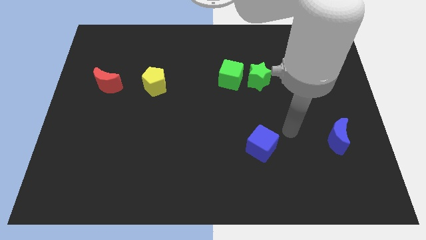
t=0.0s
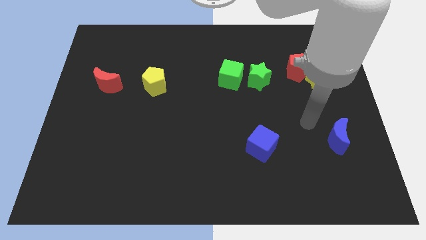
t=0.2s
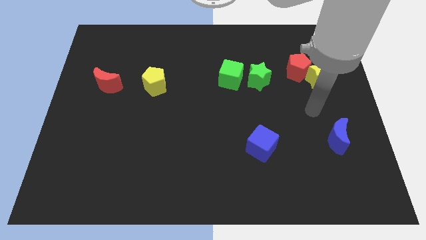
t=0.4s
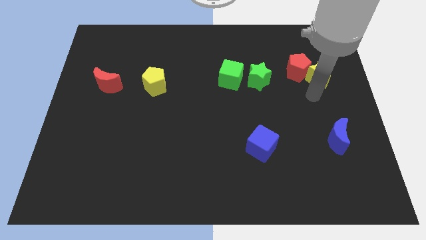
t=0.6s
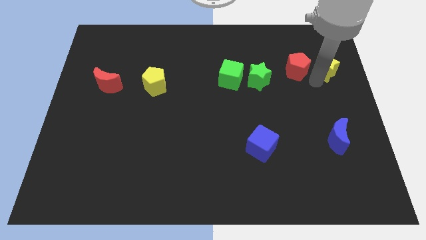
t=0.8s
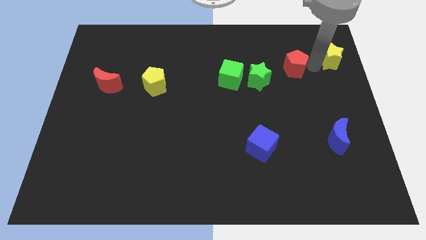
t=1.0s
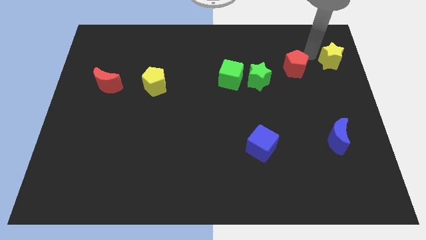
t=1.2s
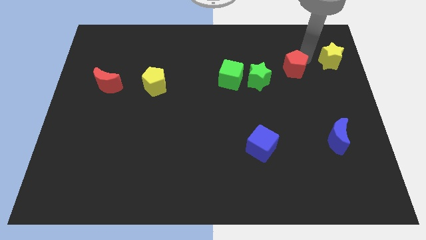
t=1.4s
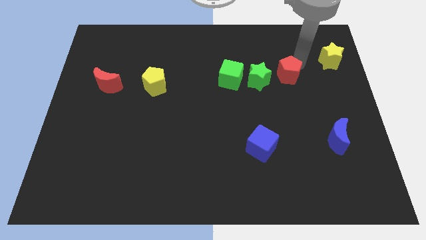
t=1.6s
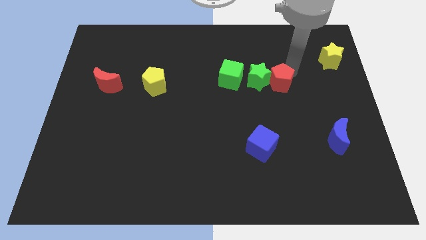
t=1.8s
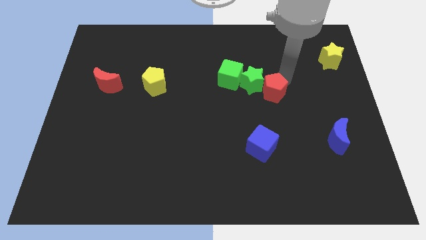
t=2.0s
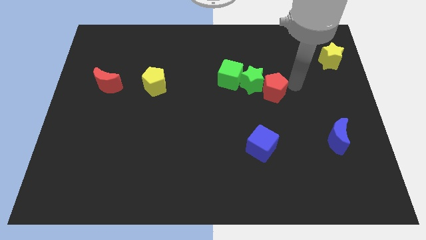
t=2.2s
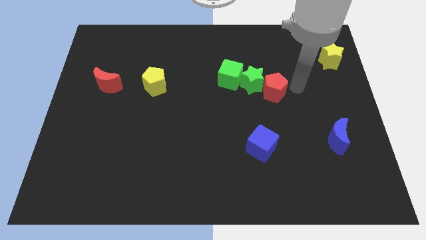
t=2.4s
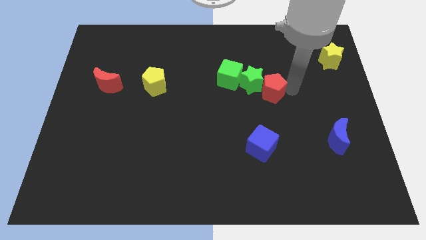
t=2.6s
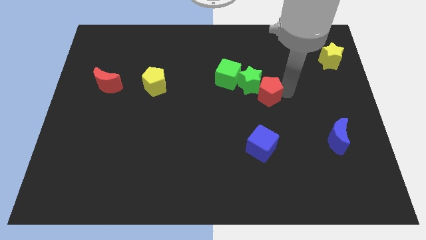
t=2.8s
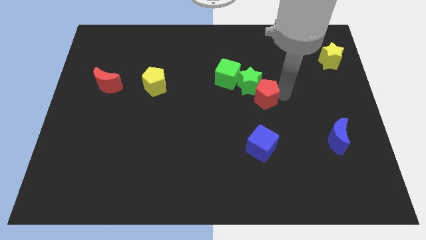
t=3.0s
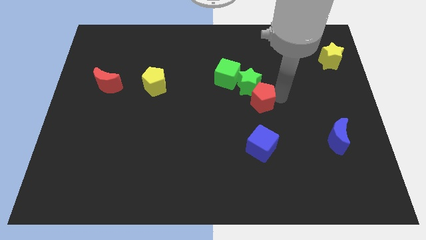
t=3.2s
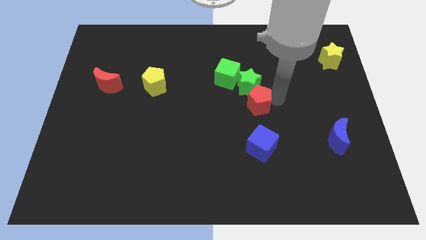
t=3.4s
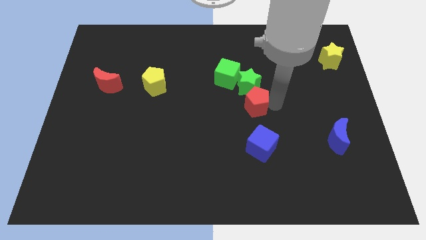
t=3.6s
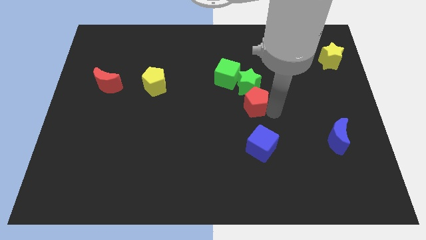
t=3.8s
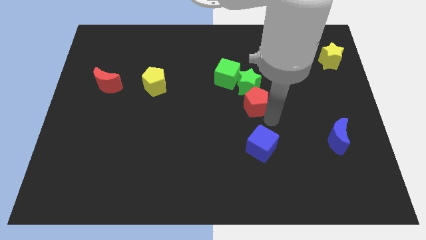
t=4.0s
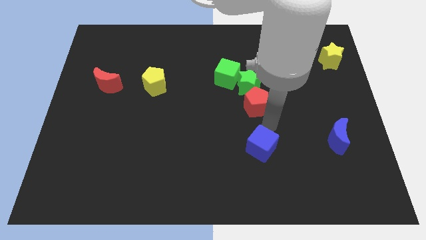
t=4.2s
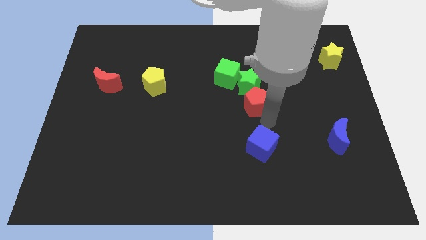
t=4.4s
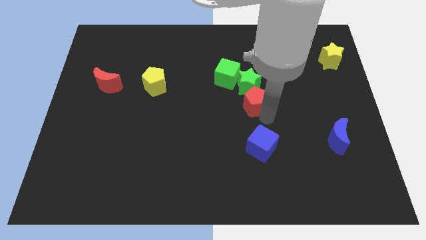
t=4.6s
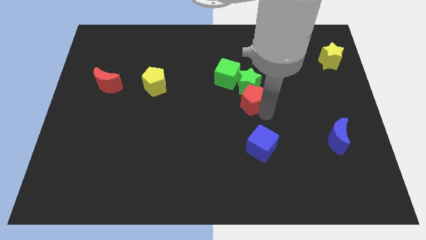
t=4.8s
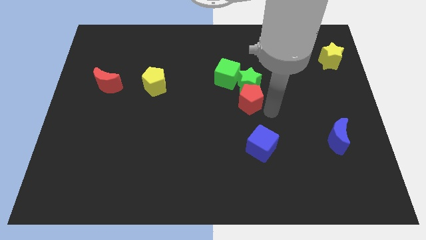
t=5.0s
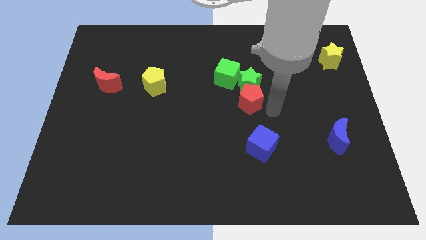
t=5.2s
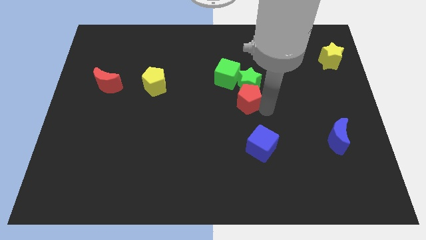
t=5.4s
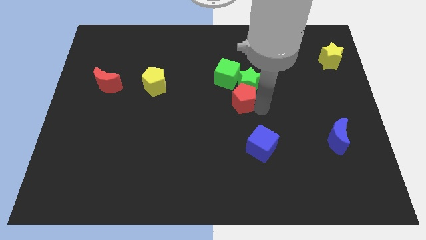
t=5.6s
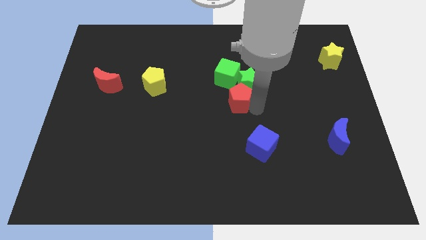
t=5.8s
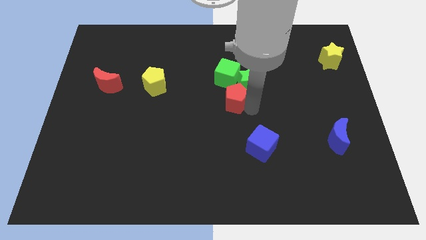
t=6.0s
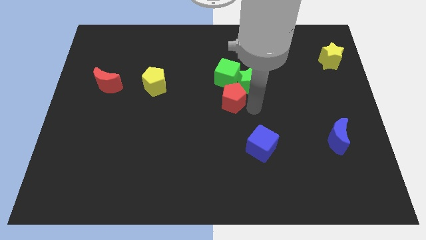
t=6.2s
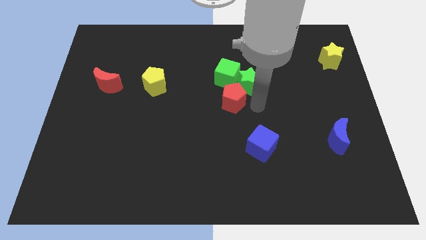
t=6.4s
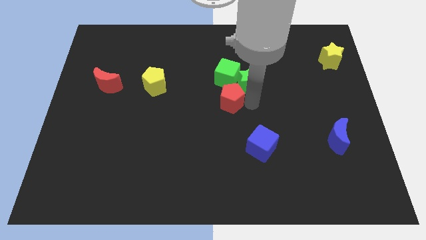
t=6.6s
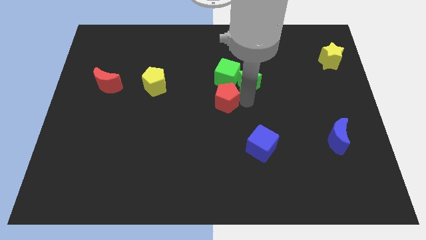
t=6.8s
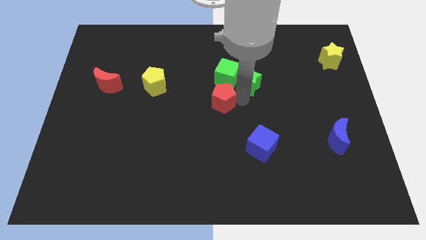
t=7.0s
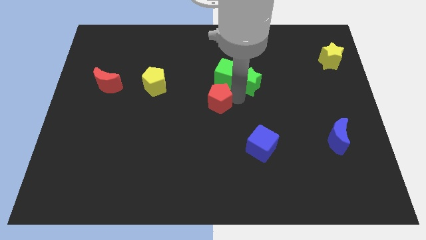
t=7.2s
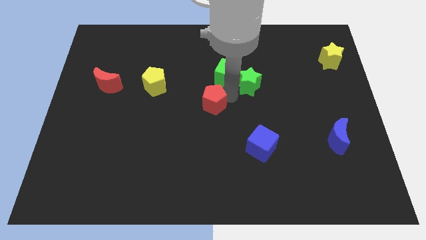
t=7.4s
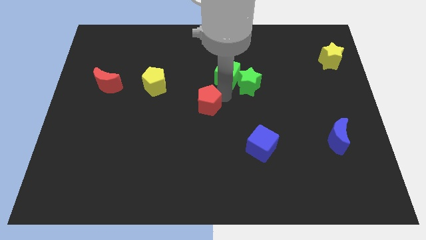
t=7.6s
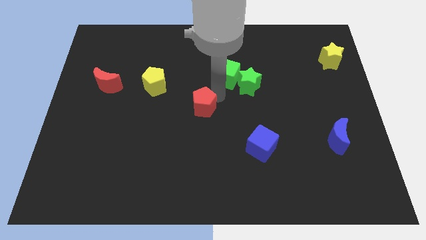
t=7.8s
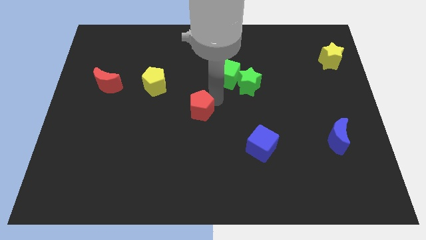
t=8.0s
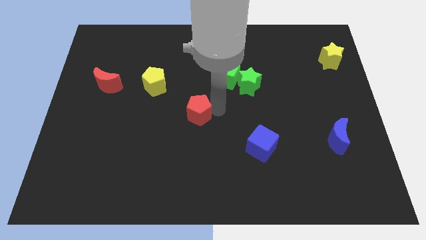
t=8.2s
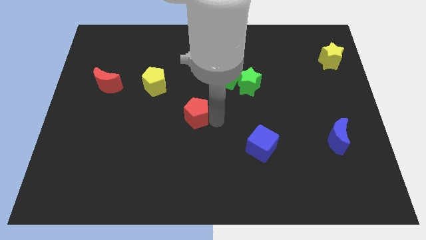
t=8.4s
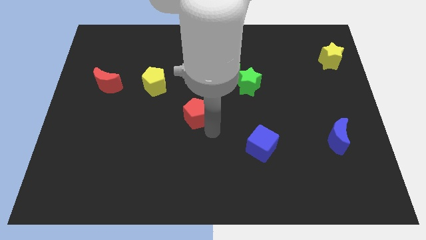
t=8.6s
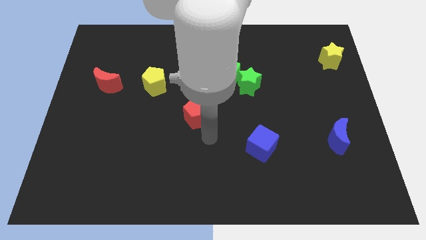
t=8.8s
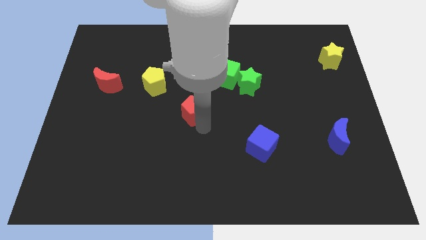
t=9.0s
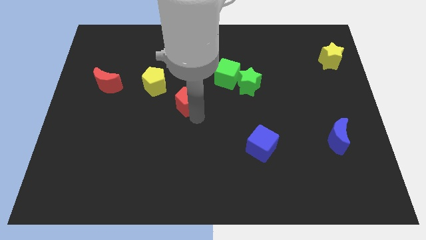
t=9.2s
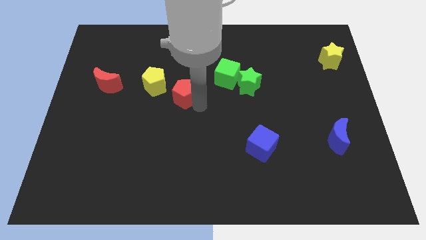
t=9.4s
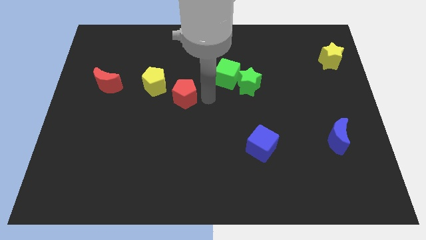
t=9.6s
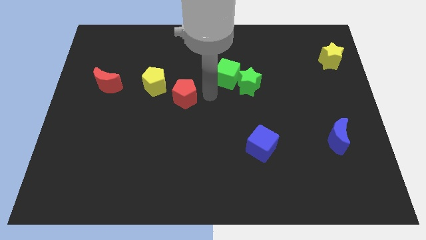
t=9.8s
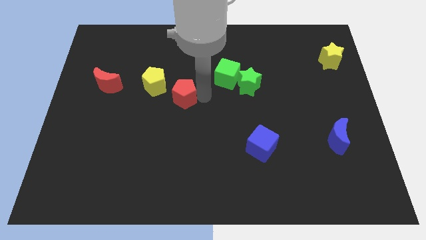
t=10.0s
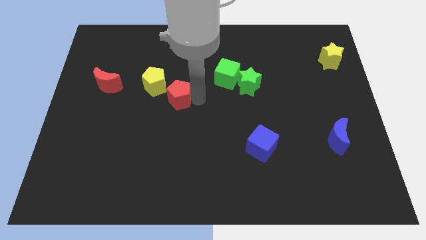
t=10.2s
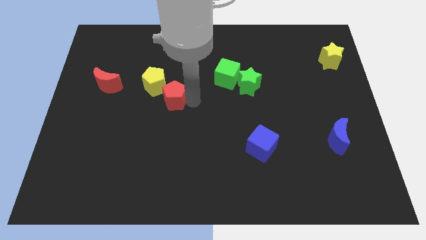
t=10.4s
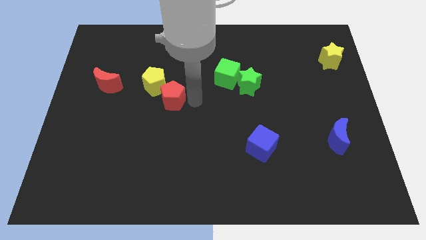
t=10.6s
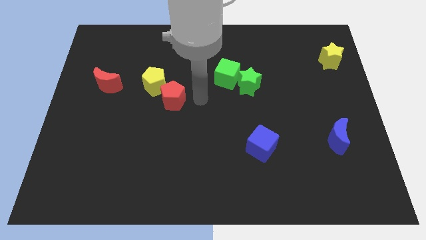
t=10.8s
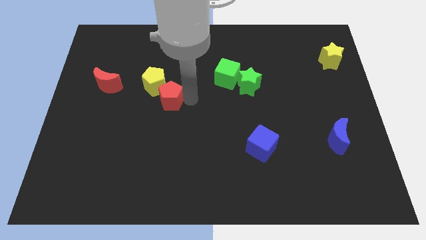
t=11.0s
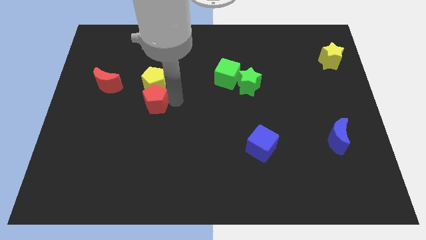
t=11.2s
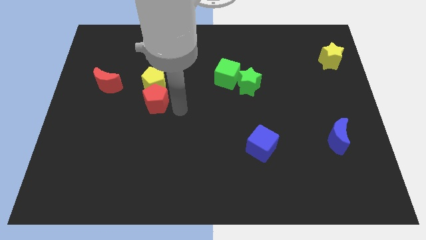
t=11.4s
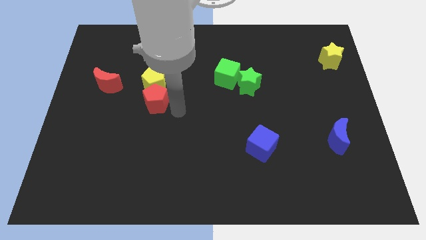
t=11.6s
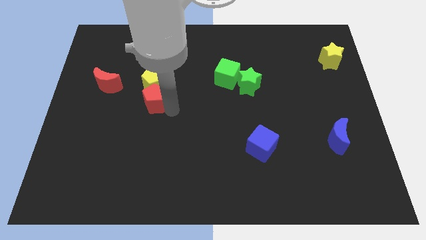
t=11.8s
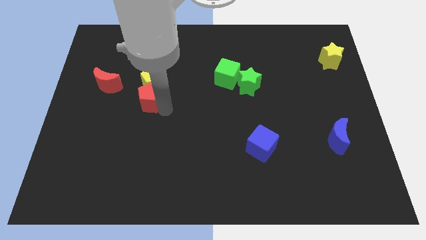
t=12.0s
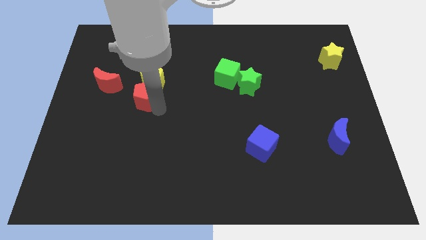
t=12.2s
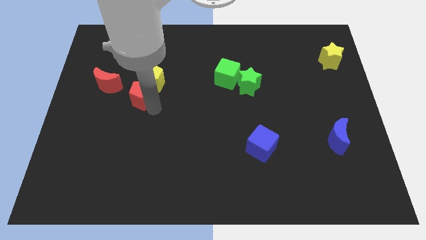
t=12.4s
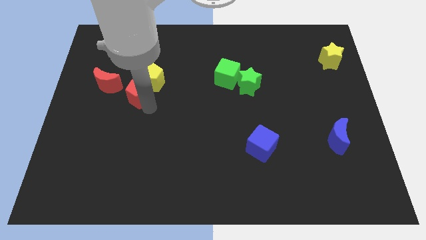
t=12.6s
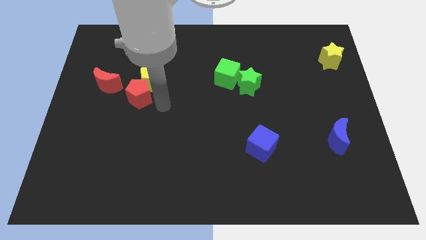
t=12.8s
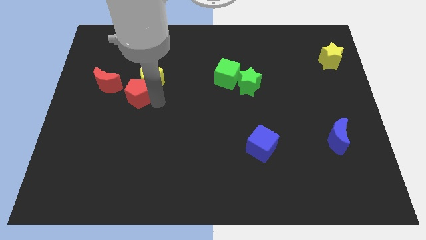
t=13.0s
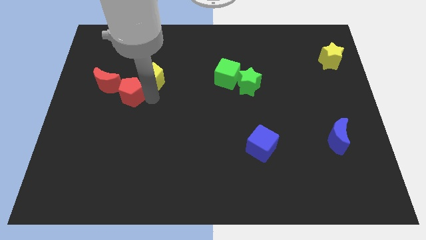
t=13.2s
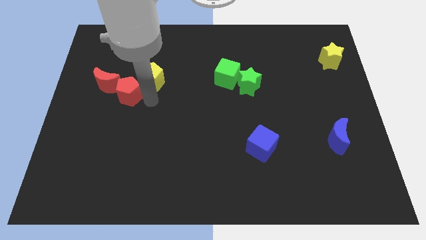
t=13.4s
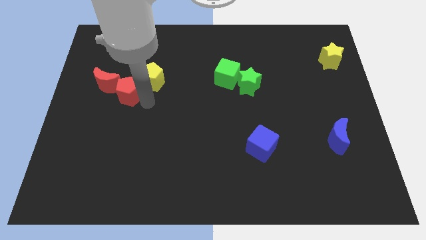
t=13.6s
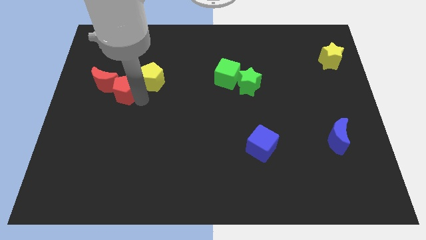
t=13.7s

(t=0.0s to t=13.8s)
put the red pentagon next to the red moon
